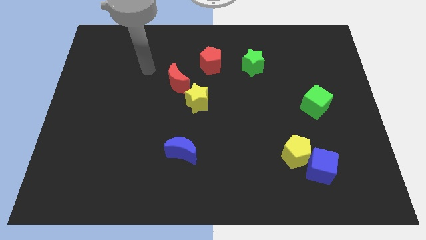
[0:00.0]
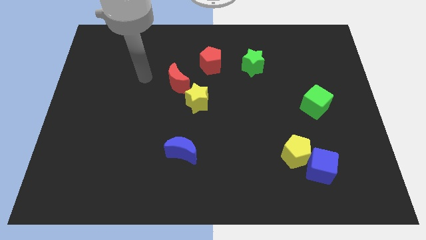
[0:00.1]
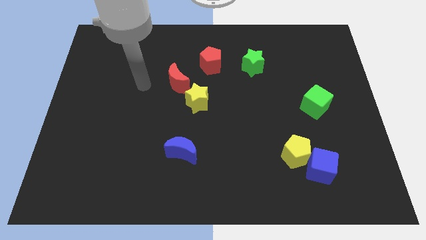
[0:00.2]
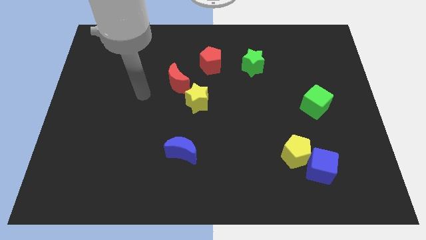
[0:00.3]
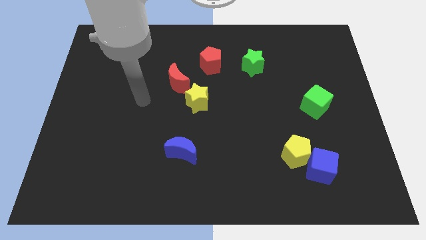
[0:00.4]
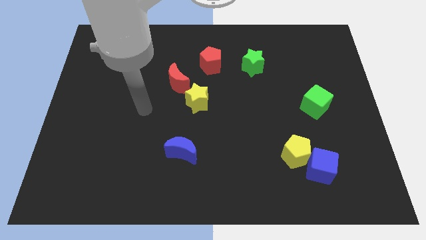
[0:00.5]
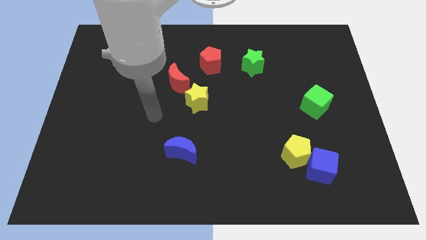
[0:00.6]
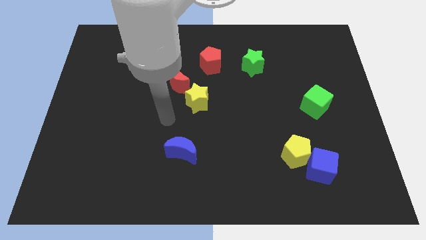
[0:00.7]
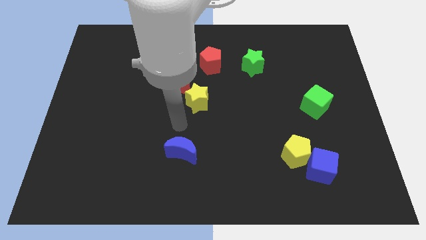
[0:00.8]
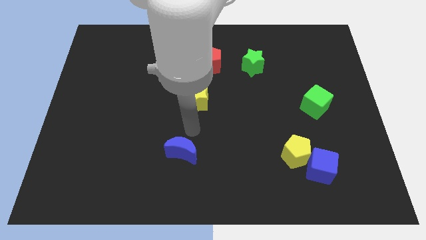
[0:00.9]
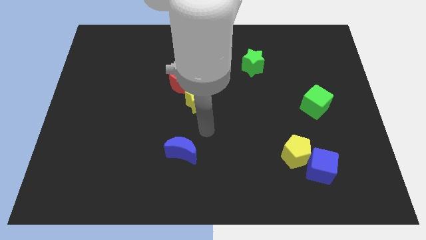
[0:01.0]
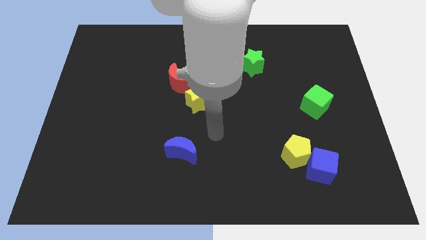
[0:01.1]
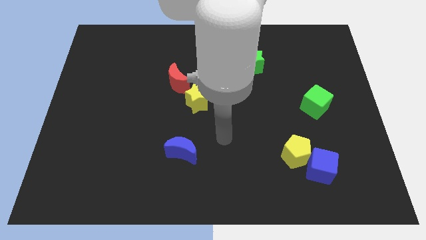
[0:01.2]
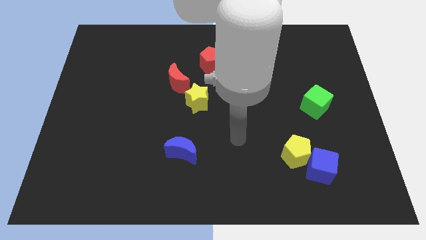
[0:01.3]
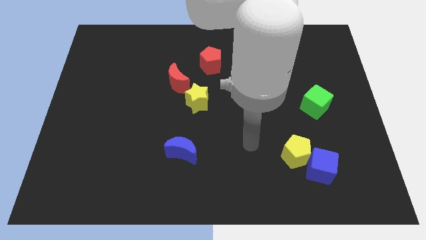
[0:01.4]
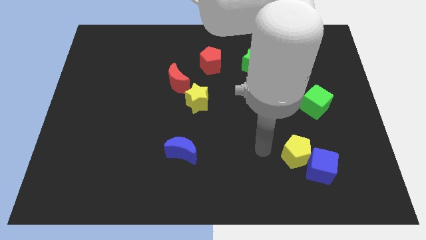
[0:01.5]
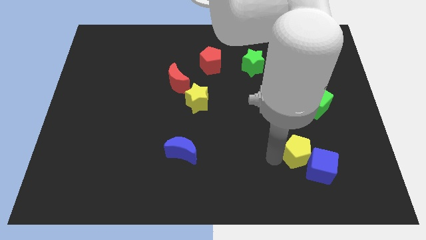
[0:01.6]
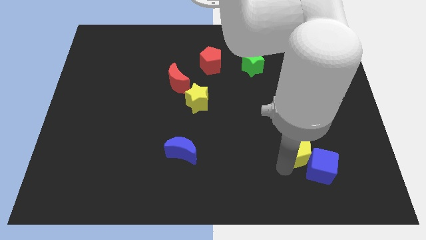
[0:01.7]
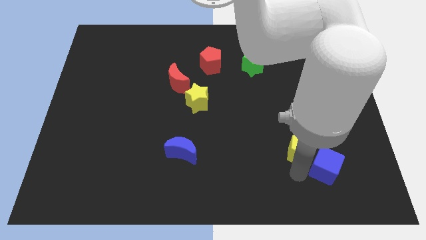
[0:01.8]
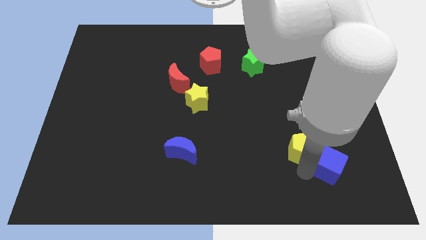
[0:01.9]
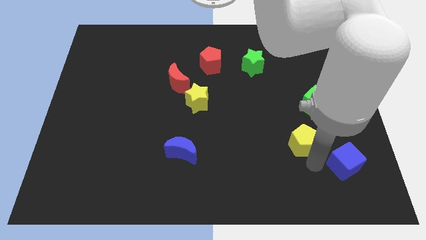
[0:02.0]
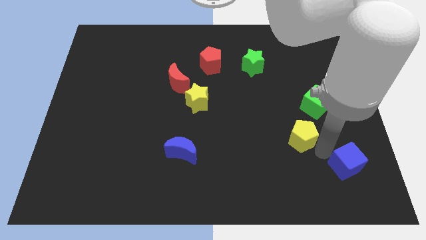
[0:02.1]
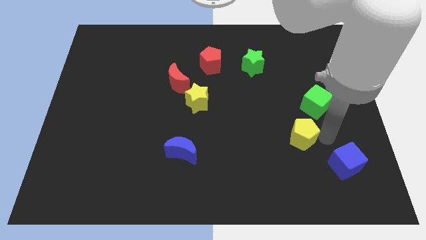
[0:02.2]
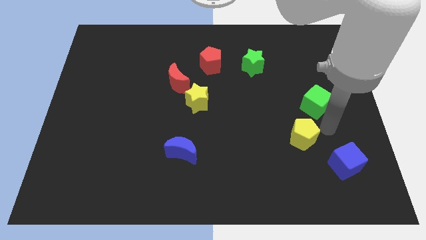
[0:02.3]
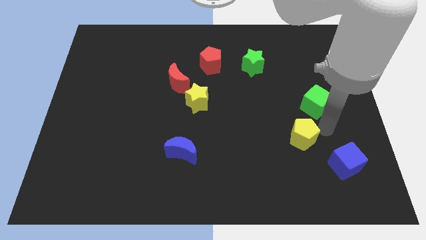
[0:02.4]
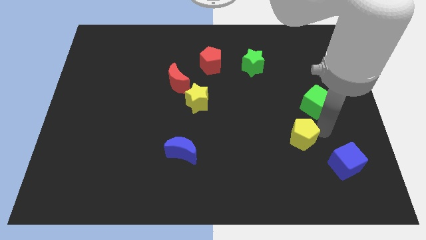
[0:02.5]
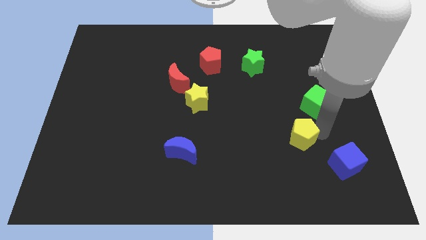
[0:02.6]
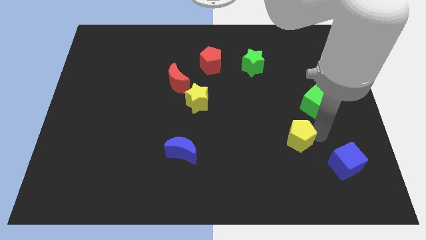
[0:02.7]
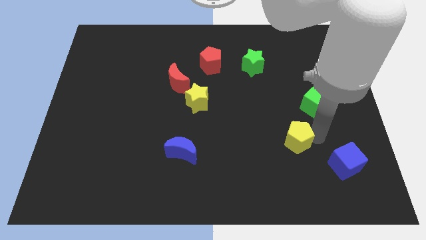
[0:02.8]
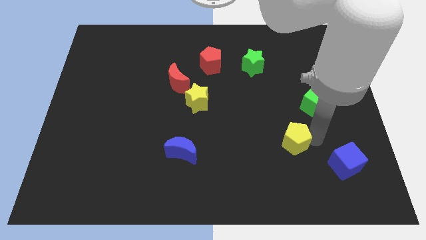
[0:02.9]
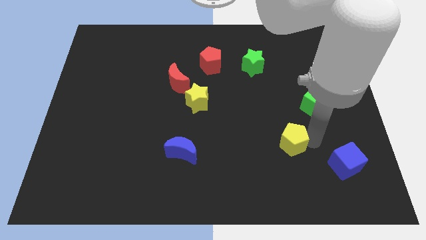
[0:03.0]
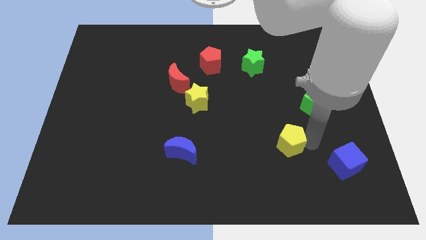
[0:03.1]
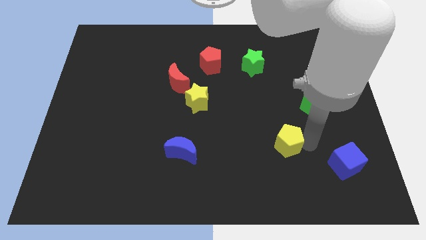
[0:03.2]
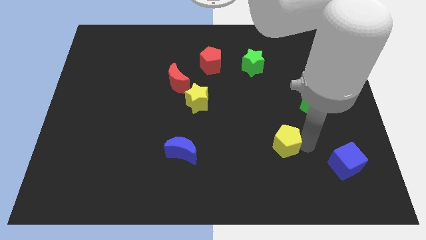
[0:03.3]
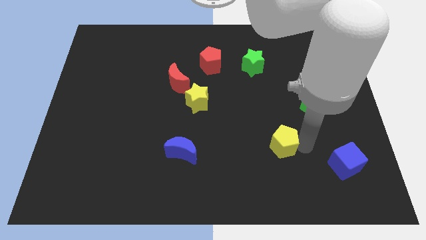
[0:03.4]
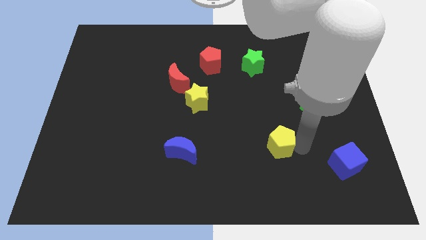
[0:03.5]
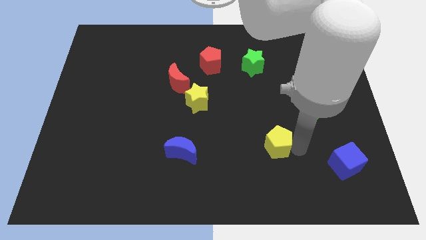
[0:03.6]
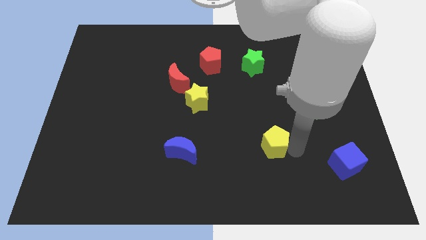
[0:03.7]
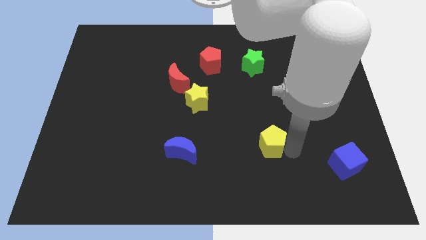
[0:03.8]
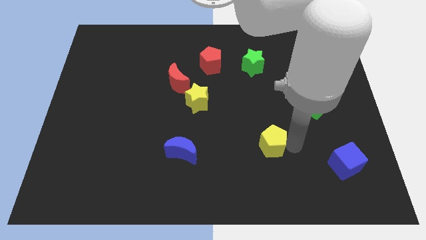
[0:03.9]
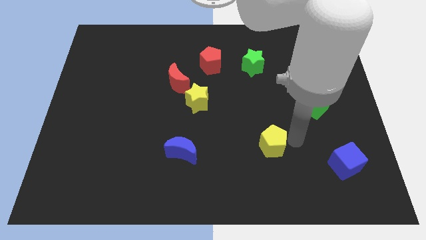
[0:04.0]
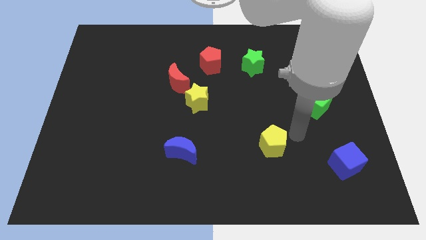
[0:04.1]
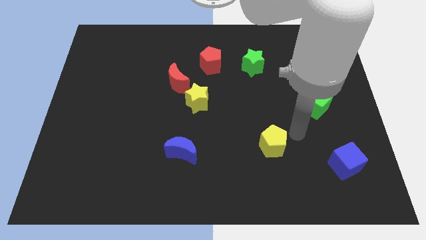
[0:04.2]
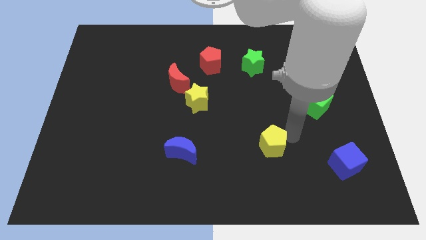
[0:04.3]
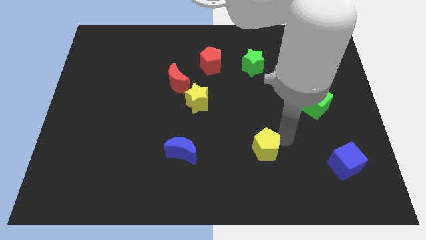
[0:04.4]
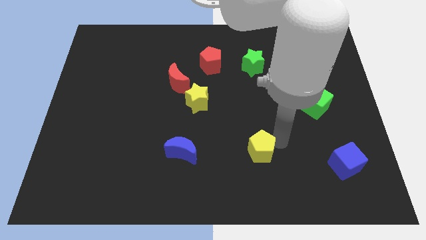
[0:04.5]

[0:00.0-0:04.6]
move the yellow pentagon left a little bit

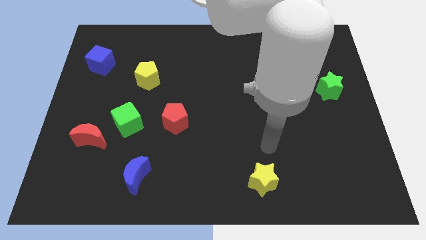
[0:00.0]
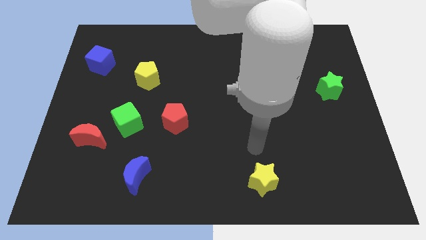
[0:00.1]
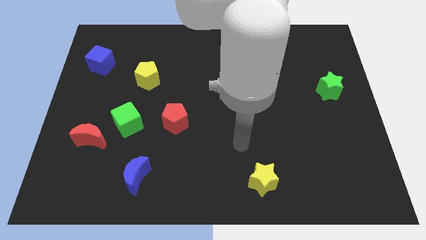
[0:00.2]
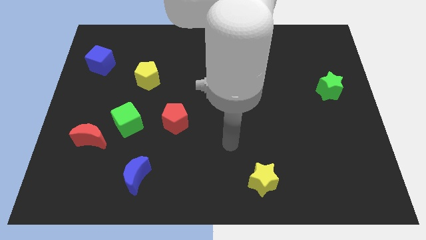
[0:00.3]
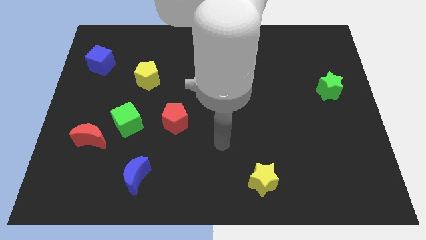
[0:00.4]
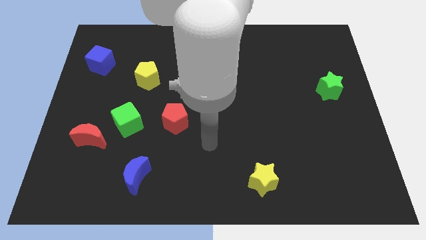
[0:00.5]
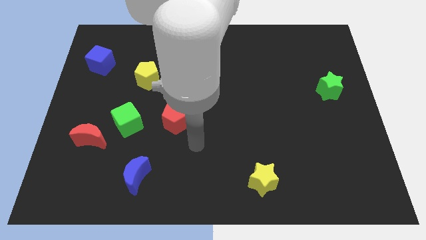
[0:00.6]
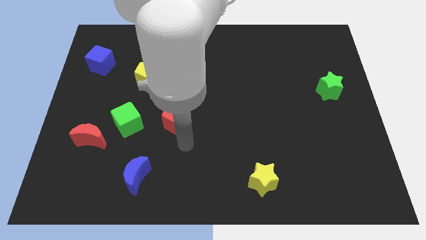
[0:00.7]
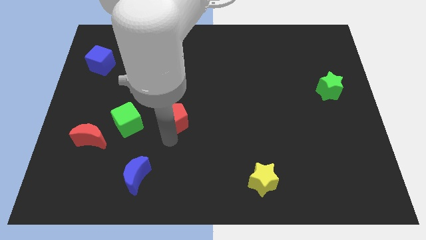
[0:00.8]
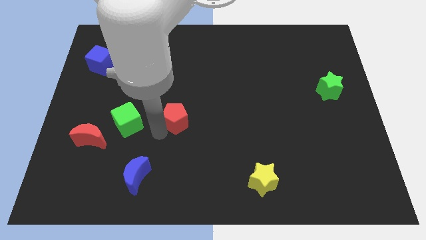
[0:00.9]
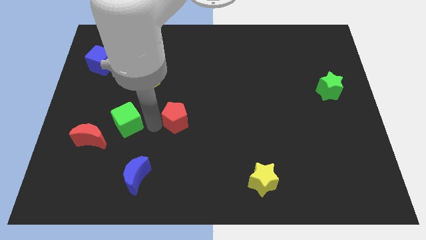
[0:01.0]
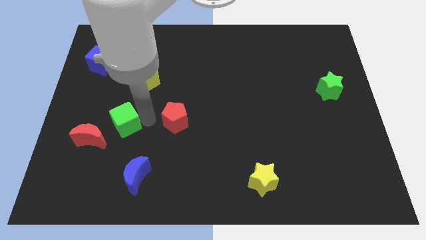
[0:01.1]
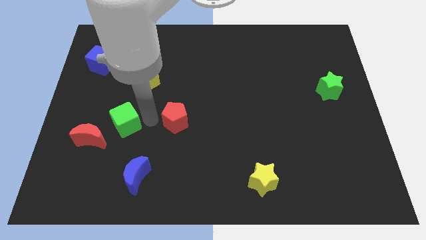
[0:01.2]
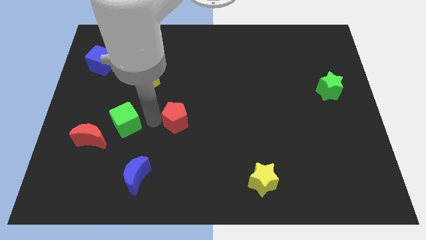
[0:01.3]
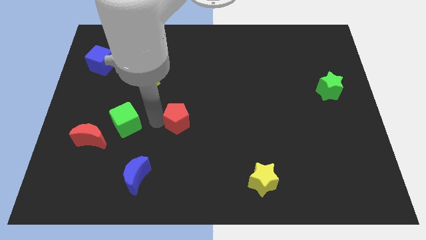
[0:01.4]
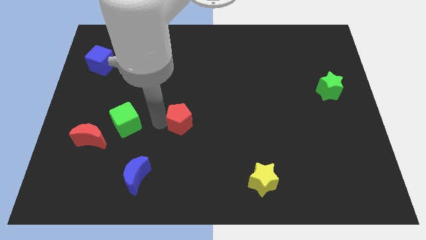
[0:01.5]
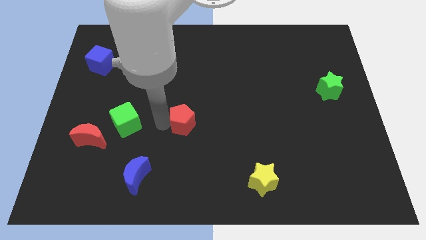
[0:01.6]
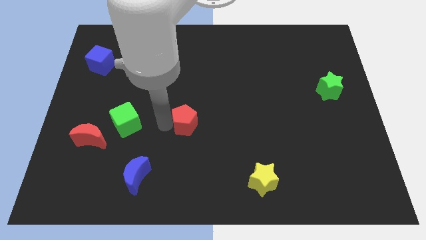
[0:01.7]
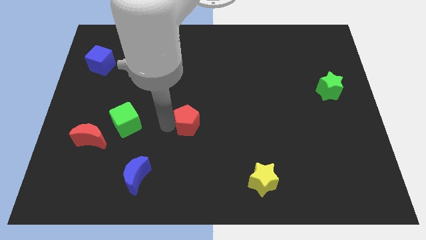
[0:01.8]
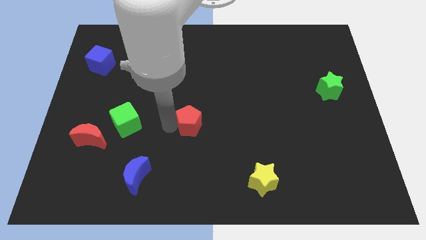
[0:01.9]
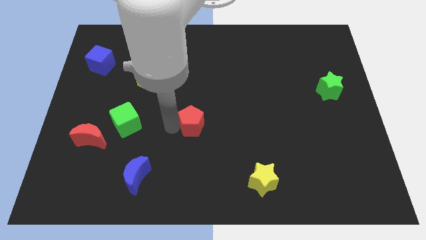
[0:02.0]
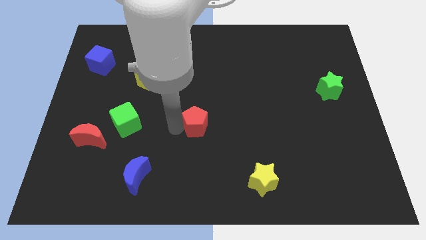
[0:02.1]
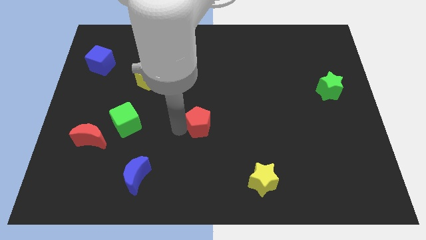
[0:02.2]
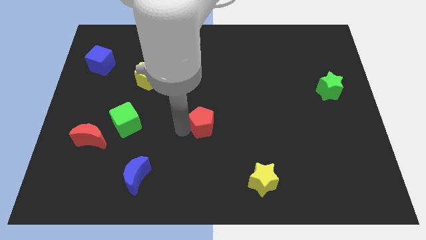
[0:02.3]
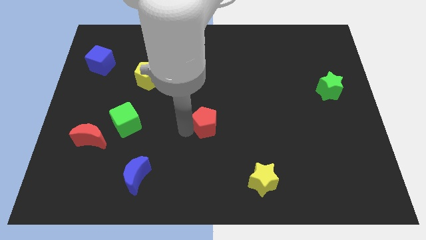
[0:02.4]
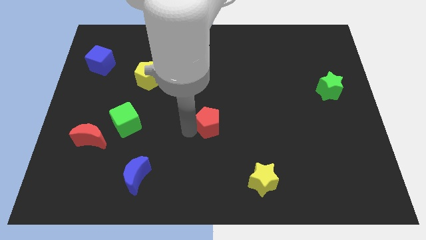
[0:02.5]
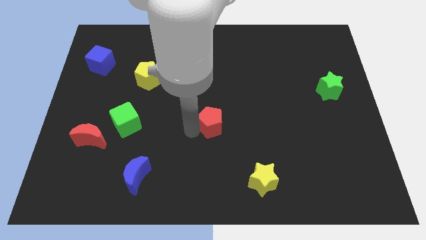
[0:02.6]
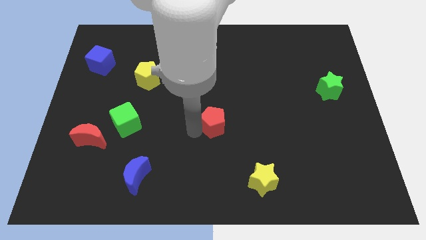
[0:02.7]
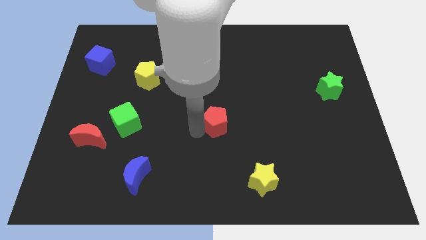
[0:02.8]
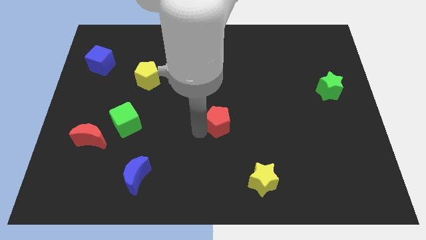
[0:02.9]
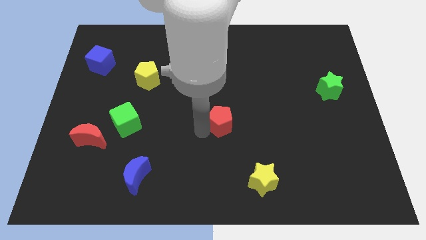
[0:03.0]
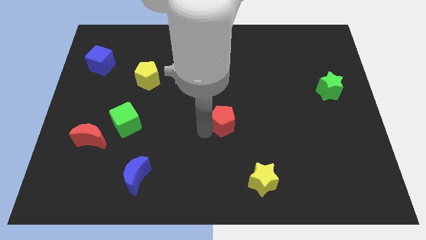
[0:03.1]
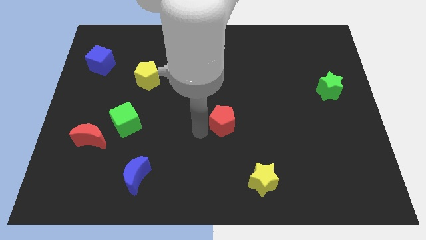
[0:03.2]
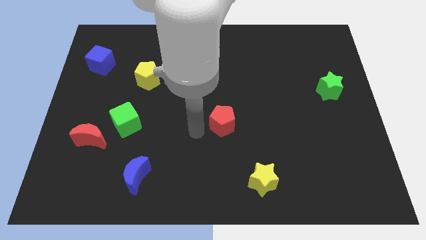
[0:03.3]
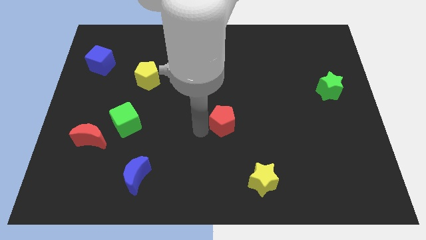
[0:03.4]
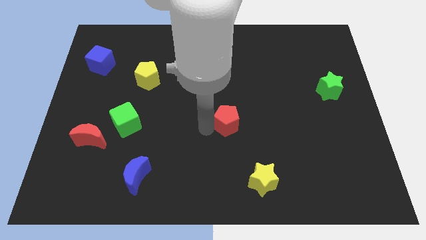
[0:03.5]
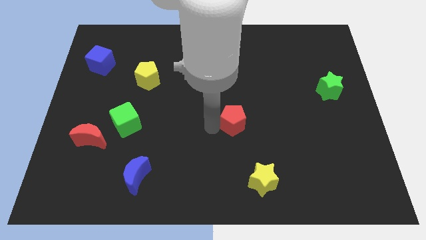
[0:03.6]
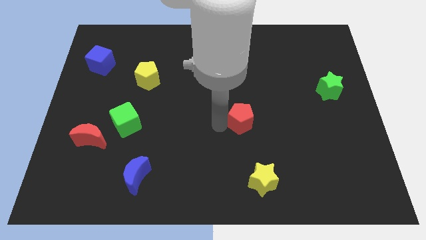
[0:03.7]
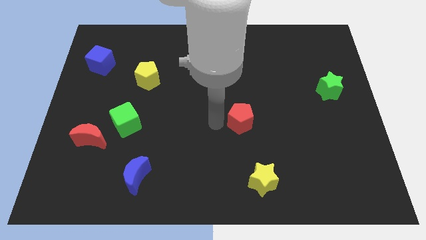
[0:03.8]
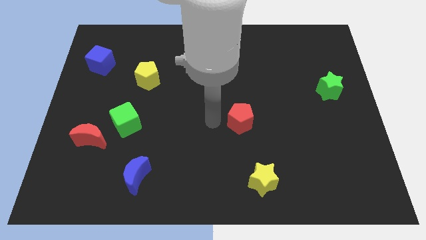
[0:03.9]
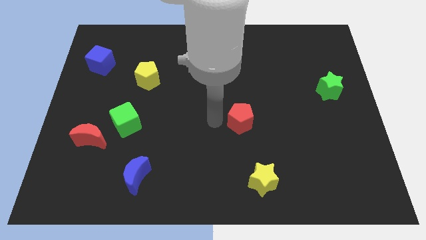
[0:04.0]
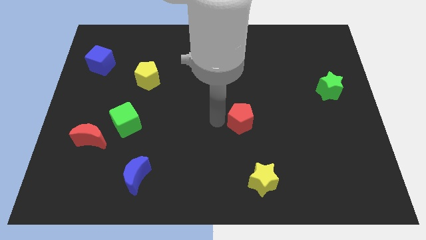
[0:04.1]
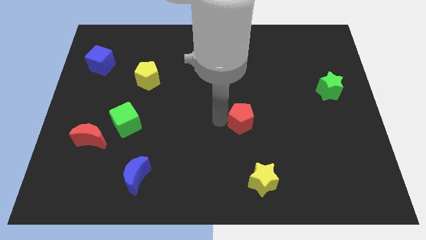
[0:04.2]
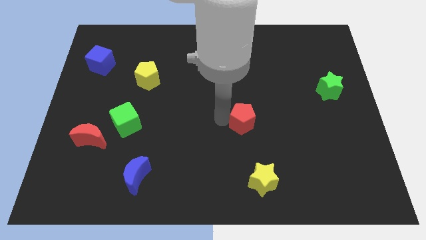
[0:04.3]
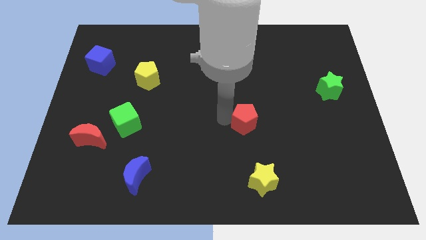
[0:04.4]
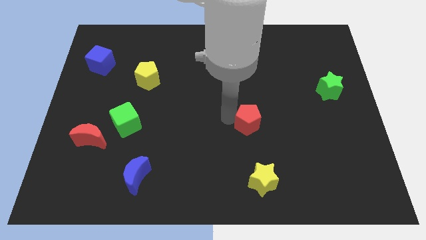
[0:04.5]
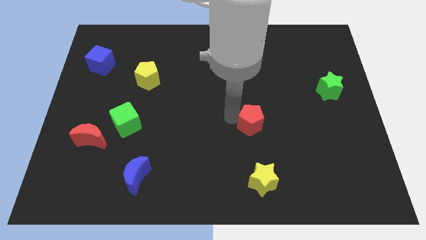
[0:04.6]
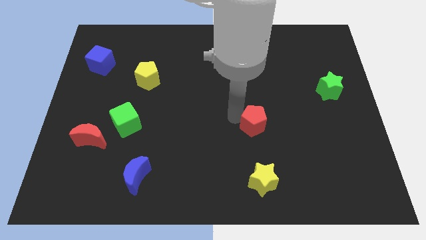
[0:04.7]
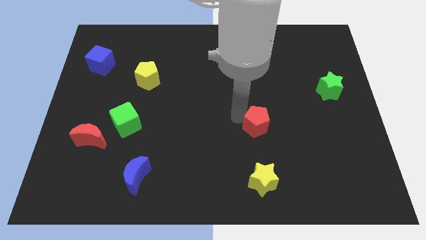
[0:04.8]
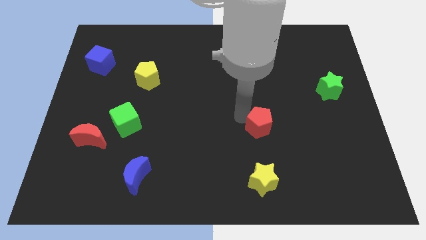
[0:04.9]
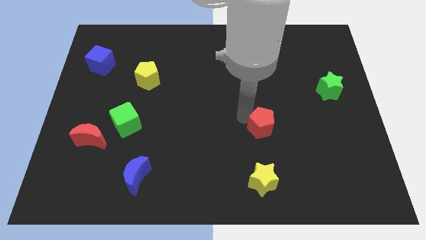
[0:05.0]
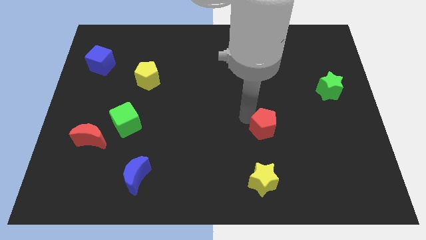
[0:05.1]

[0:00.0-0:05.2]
slide the red pentagon to the right
